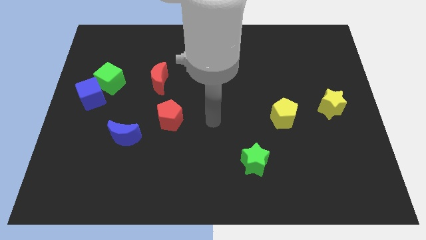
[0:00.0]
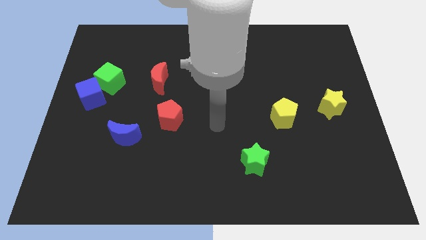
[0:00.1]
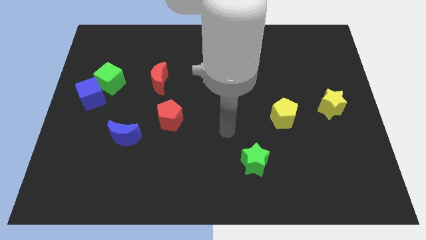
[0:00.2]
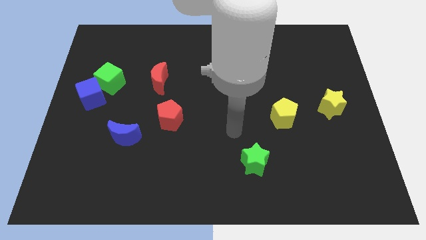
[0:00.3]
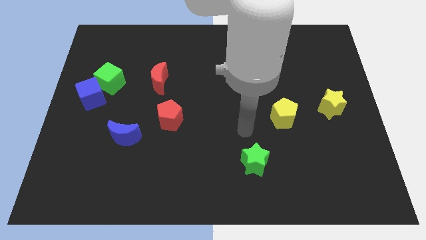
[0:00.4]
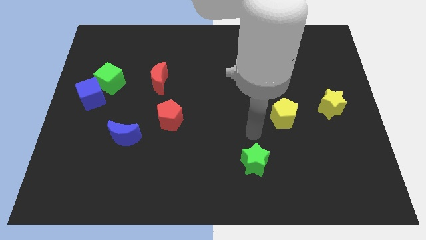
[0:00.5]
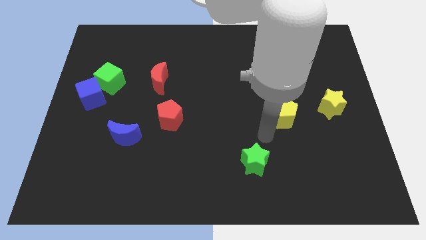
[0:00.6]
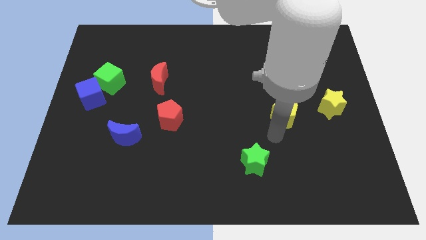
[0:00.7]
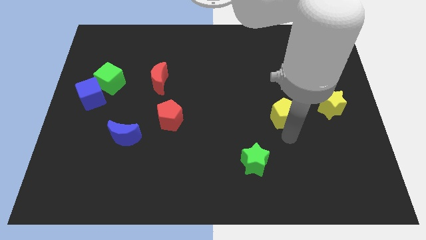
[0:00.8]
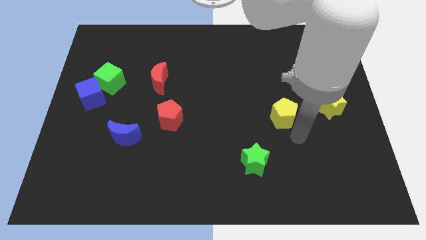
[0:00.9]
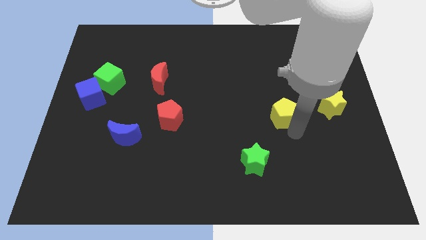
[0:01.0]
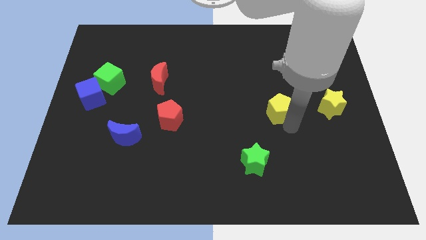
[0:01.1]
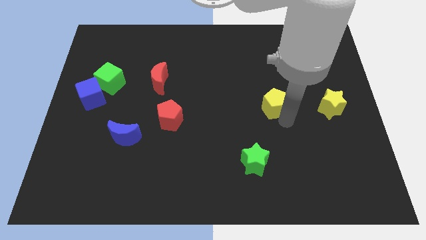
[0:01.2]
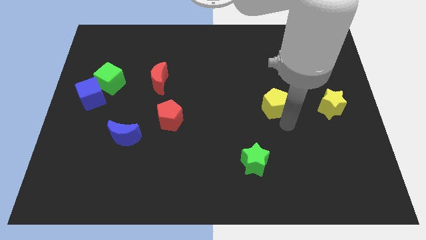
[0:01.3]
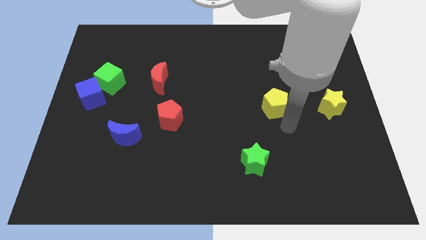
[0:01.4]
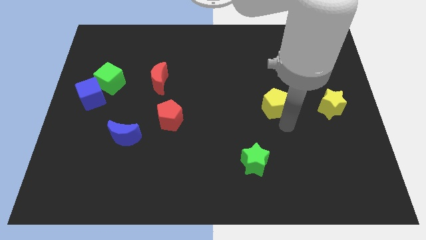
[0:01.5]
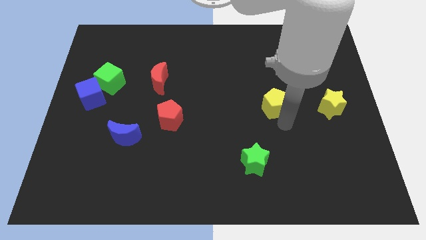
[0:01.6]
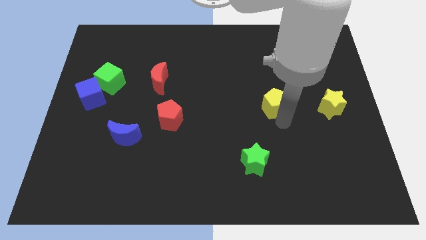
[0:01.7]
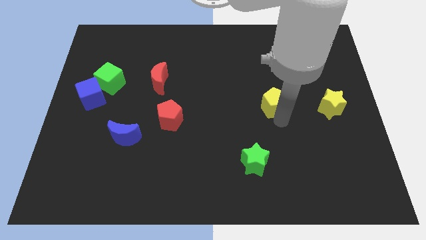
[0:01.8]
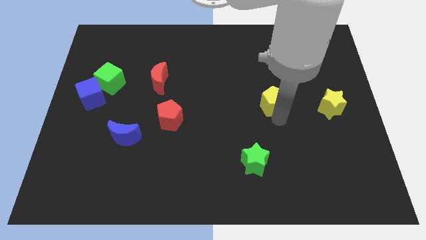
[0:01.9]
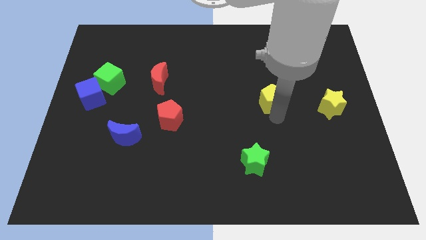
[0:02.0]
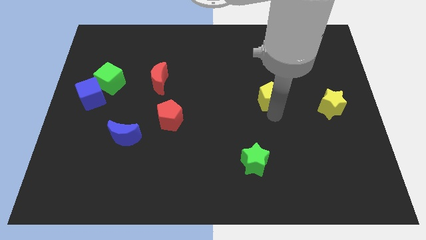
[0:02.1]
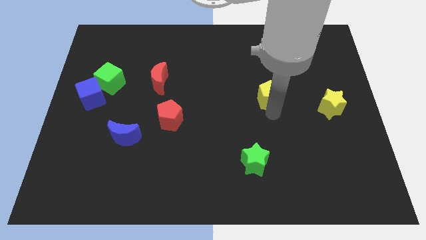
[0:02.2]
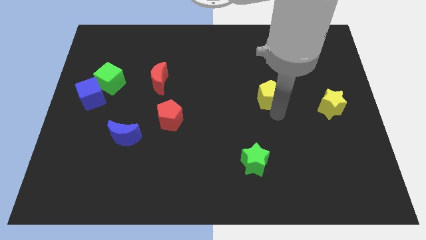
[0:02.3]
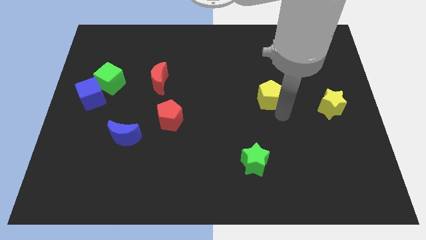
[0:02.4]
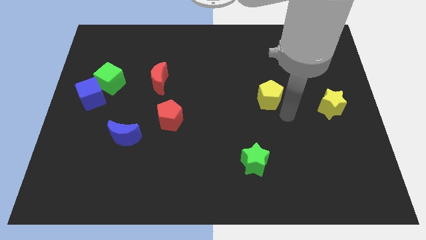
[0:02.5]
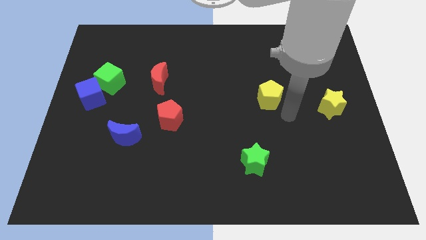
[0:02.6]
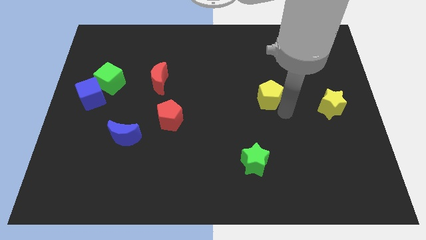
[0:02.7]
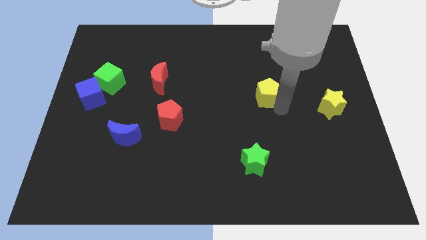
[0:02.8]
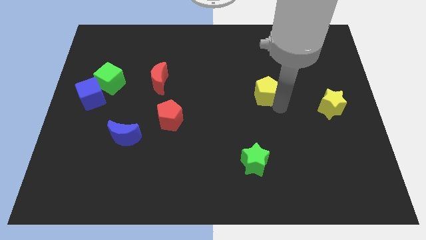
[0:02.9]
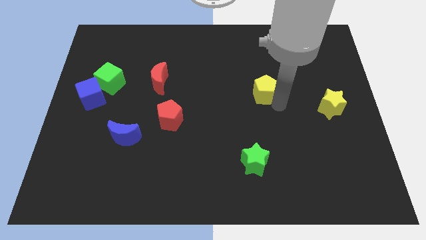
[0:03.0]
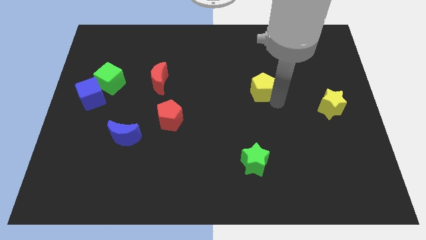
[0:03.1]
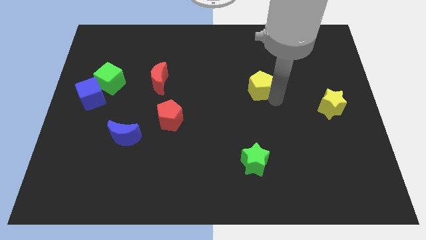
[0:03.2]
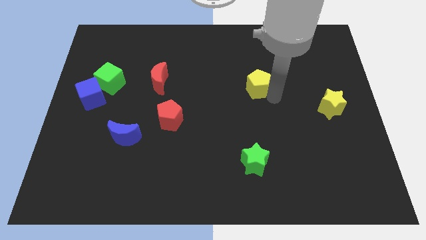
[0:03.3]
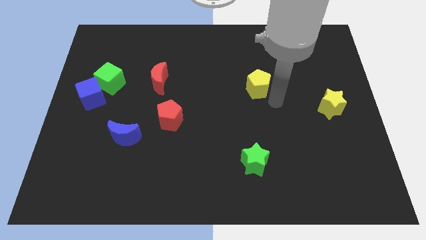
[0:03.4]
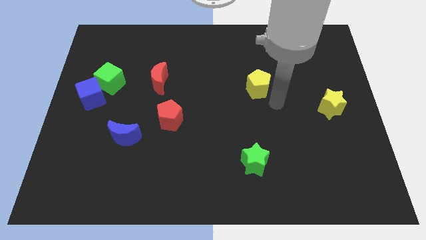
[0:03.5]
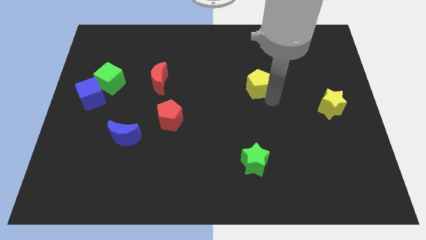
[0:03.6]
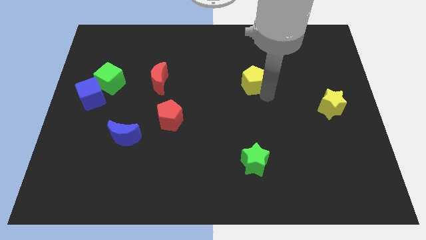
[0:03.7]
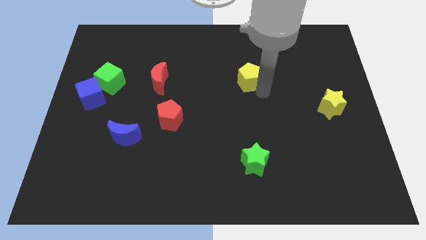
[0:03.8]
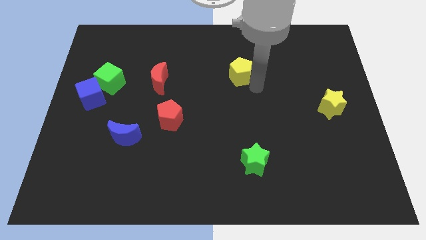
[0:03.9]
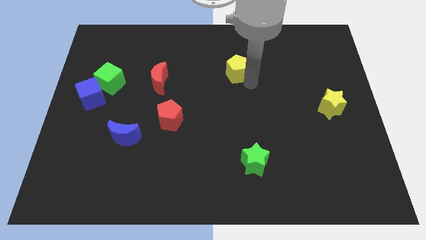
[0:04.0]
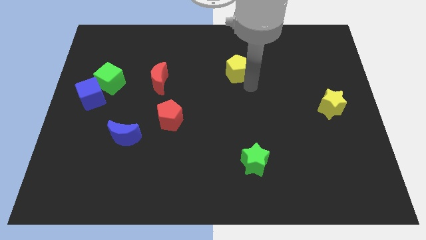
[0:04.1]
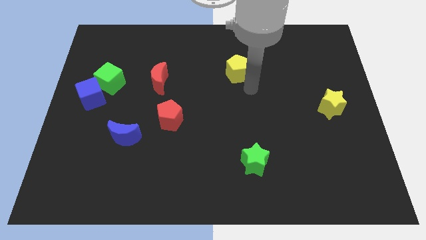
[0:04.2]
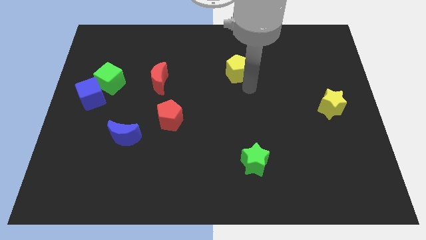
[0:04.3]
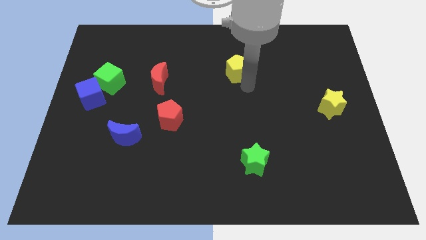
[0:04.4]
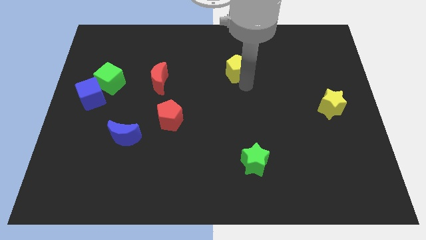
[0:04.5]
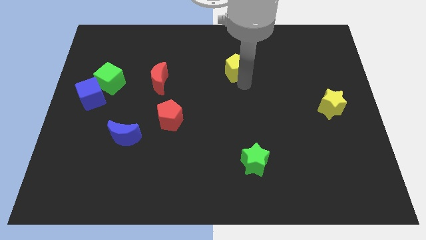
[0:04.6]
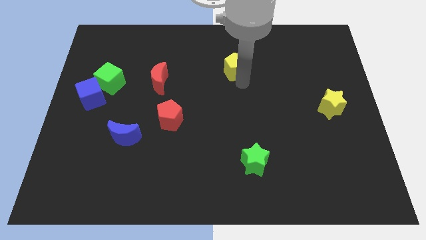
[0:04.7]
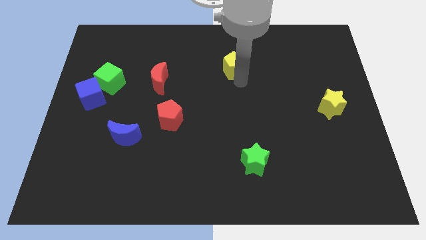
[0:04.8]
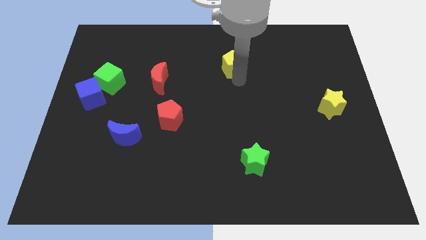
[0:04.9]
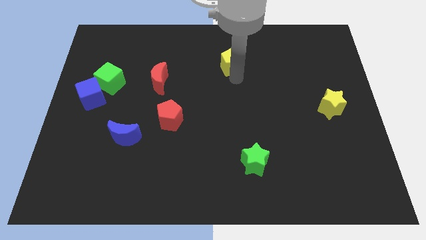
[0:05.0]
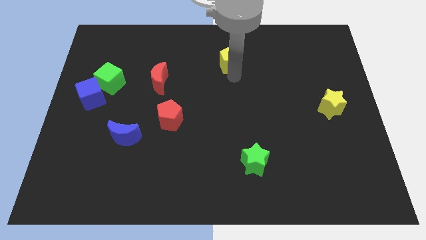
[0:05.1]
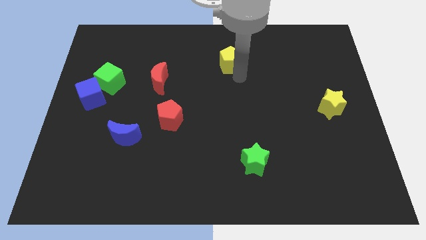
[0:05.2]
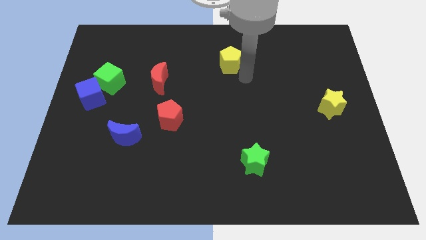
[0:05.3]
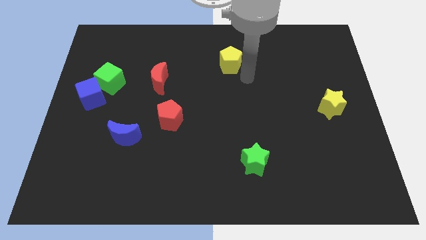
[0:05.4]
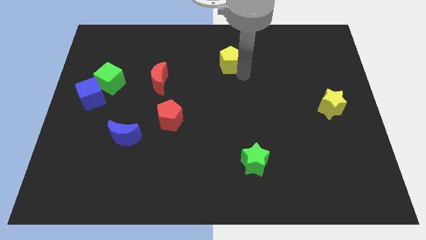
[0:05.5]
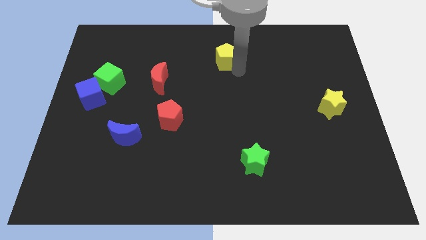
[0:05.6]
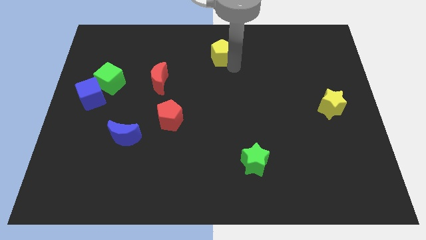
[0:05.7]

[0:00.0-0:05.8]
slide the yellow pentagon to the top
